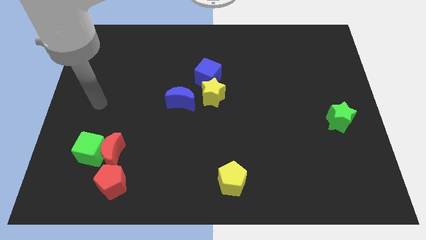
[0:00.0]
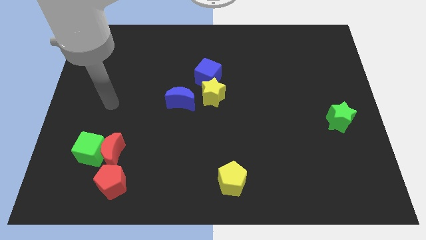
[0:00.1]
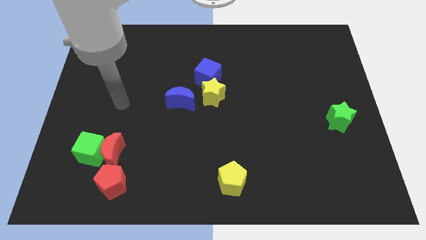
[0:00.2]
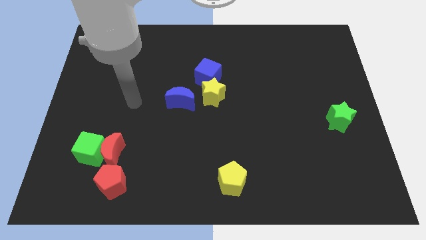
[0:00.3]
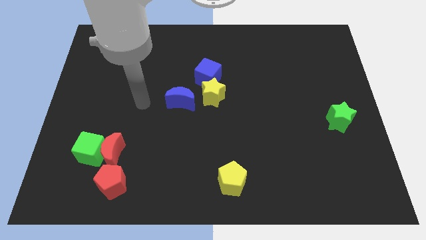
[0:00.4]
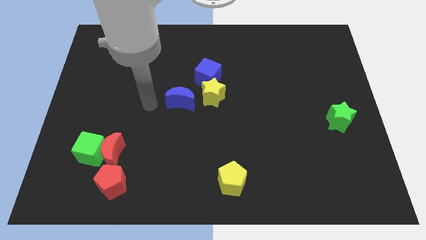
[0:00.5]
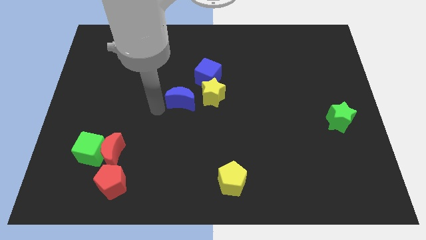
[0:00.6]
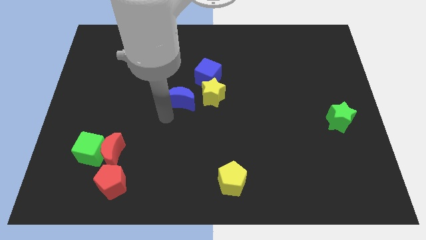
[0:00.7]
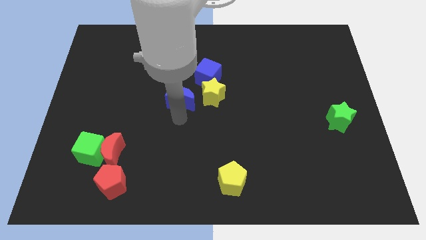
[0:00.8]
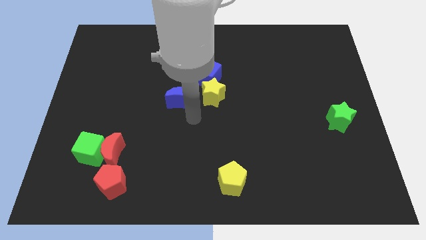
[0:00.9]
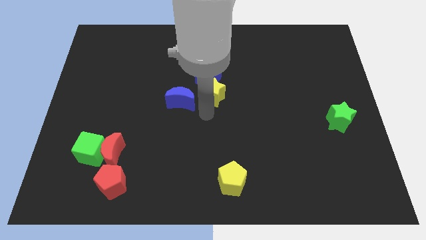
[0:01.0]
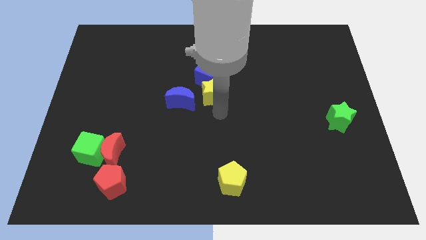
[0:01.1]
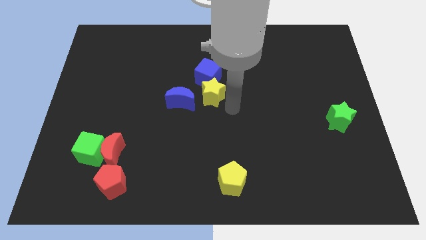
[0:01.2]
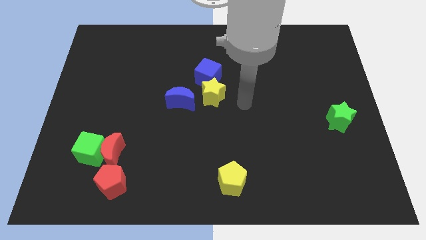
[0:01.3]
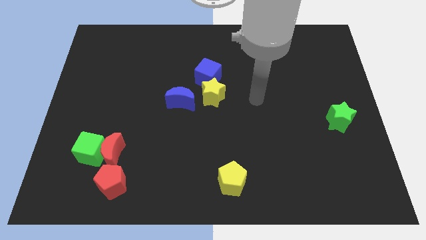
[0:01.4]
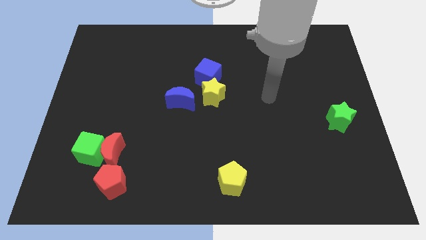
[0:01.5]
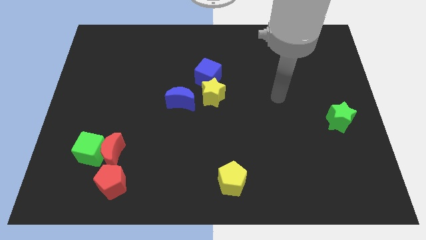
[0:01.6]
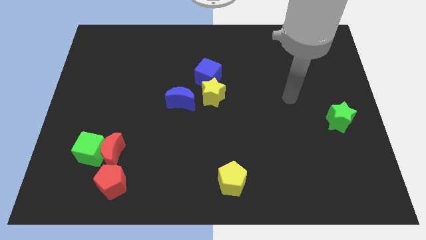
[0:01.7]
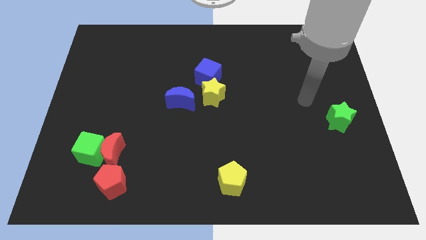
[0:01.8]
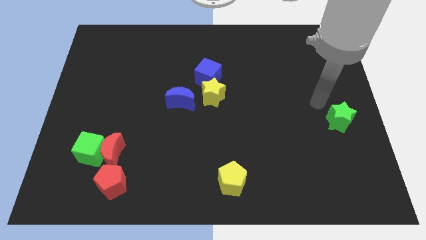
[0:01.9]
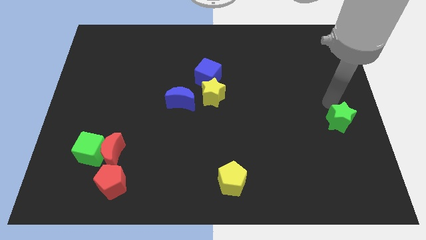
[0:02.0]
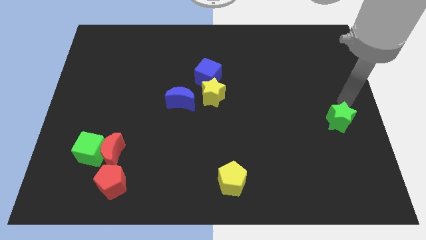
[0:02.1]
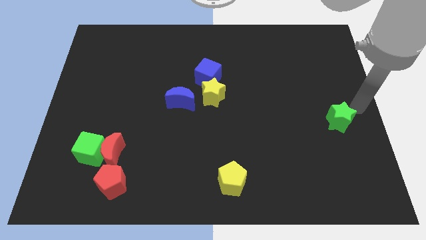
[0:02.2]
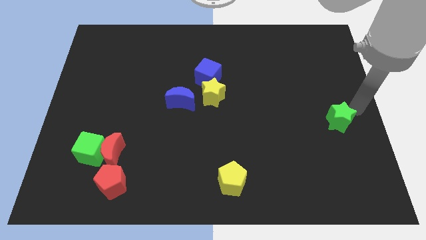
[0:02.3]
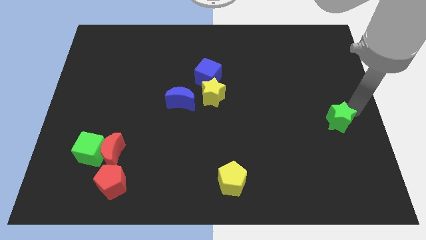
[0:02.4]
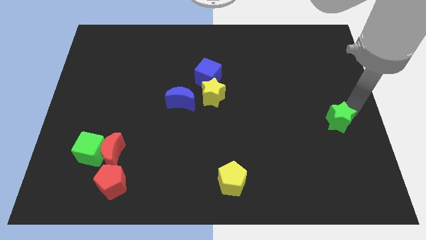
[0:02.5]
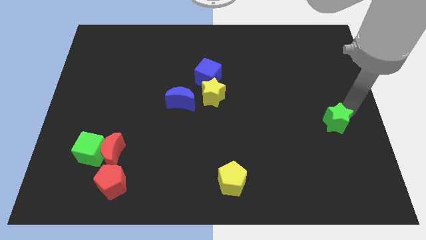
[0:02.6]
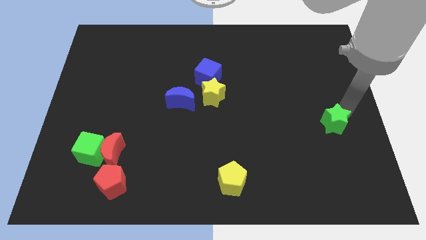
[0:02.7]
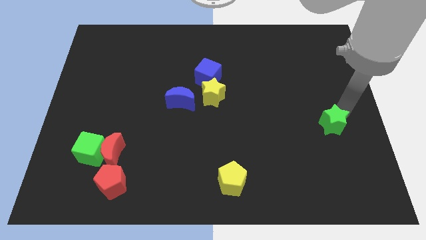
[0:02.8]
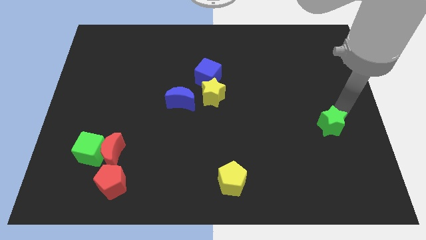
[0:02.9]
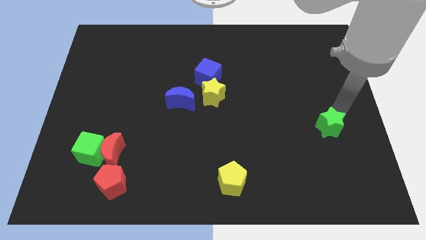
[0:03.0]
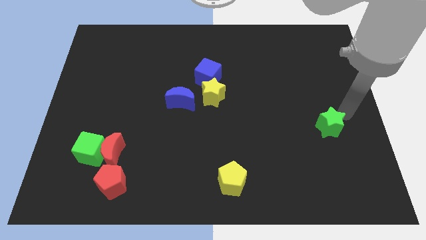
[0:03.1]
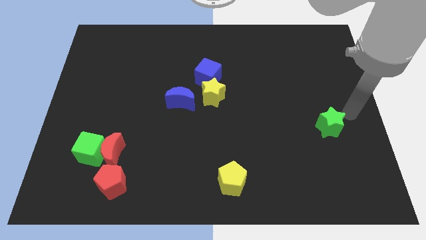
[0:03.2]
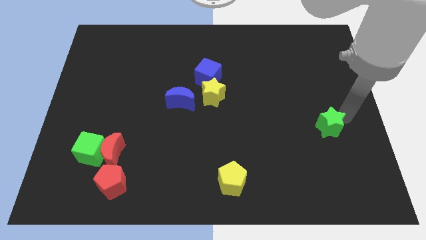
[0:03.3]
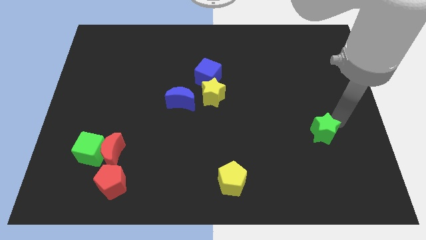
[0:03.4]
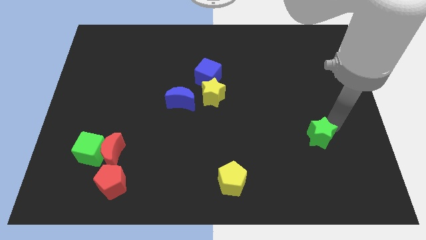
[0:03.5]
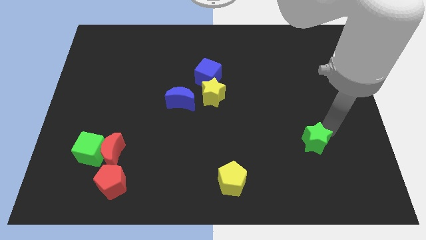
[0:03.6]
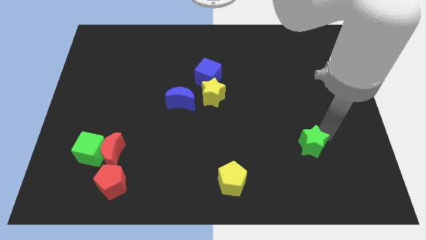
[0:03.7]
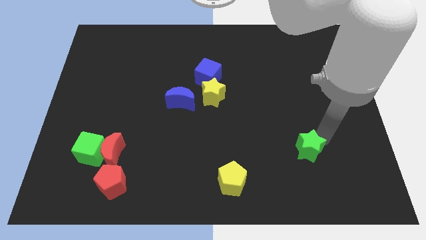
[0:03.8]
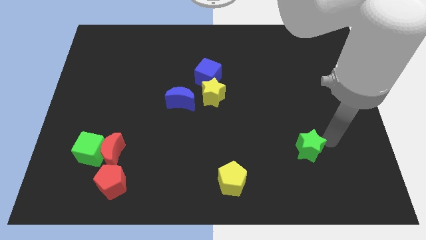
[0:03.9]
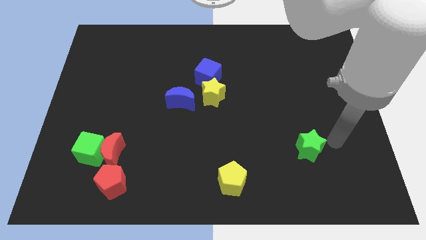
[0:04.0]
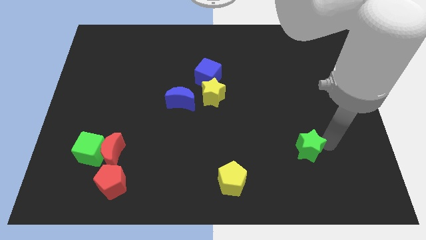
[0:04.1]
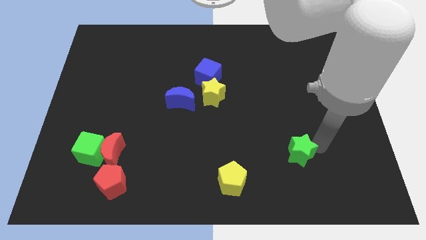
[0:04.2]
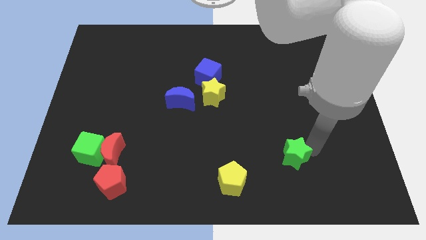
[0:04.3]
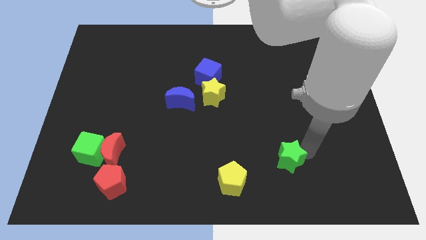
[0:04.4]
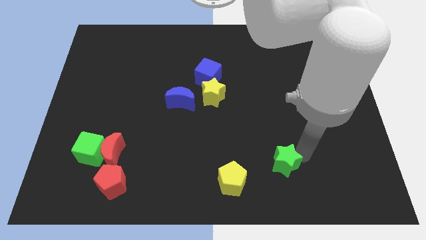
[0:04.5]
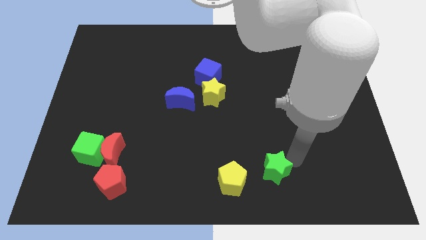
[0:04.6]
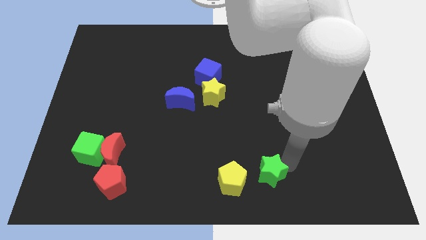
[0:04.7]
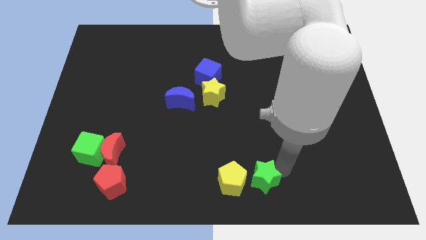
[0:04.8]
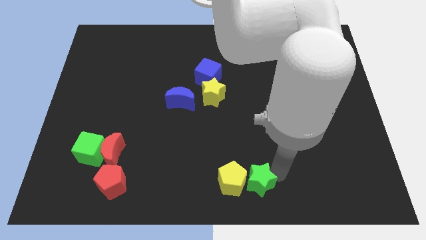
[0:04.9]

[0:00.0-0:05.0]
put the green star to the yellow pentagon

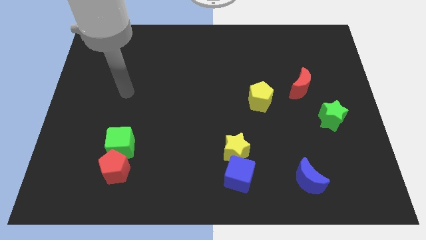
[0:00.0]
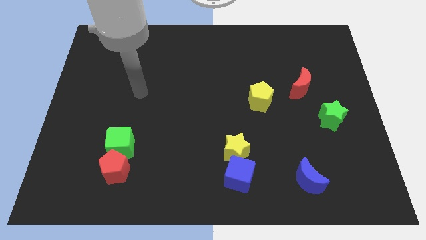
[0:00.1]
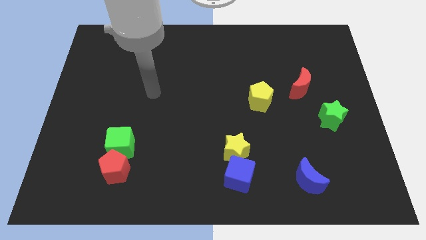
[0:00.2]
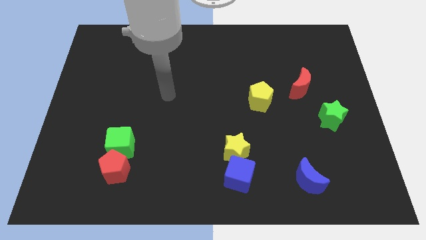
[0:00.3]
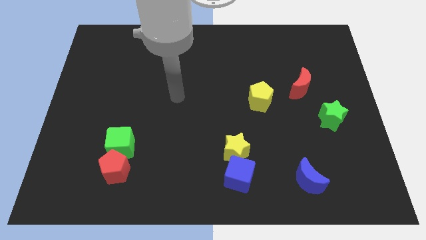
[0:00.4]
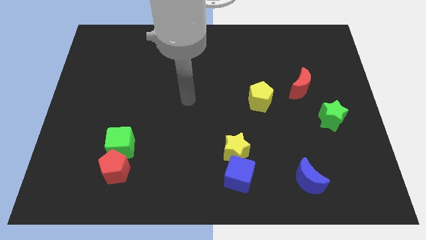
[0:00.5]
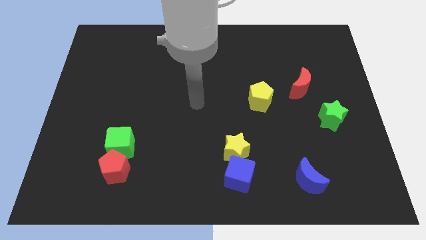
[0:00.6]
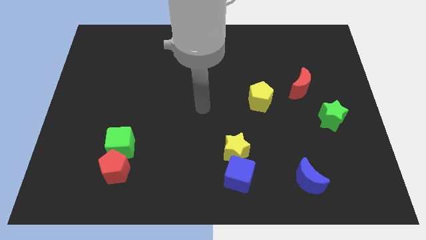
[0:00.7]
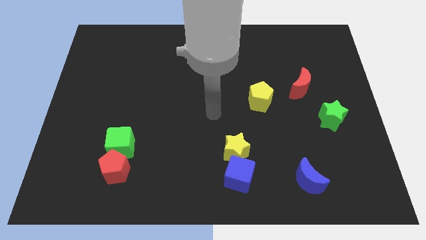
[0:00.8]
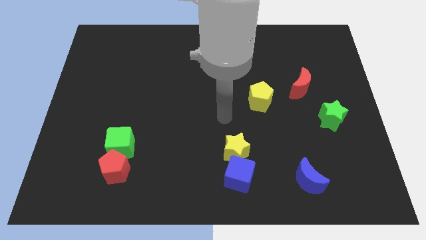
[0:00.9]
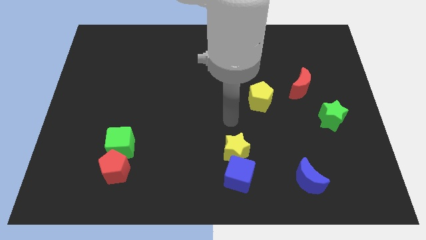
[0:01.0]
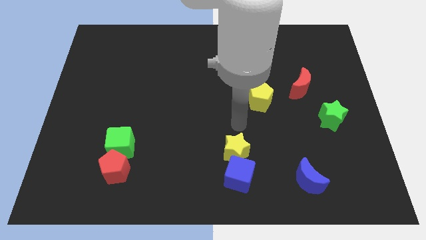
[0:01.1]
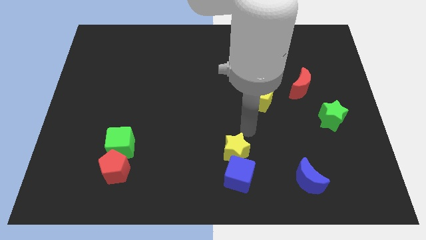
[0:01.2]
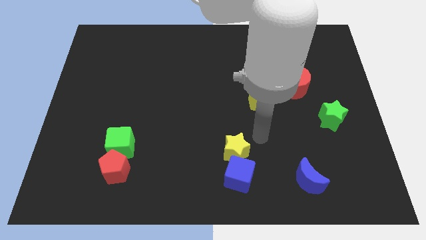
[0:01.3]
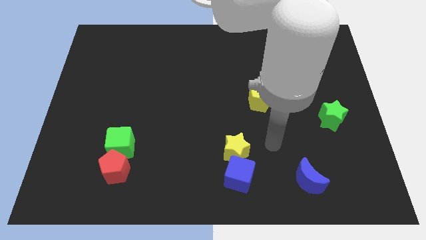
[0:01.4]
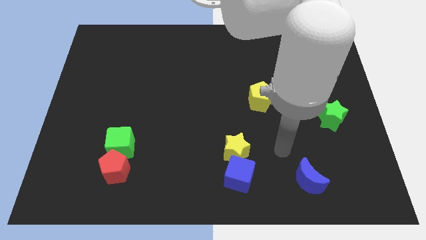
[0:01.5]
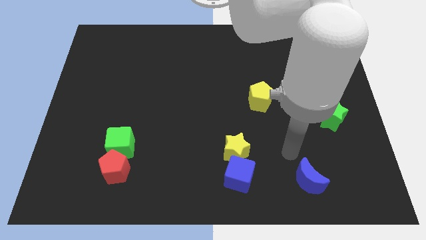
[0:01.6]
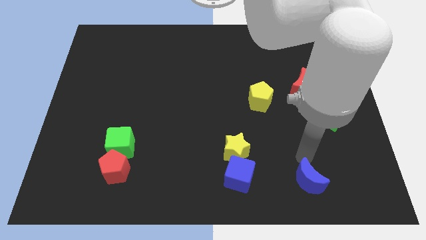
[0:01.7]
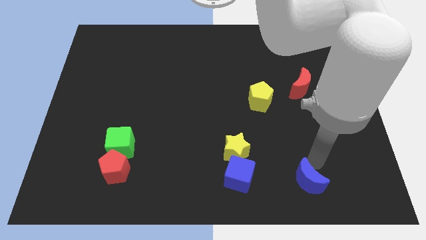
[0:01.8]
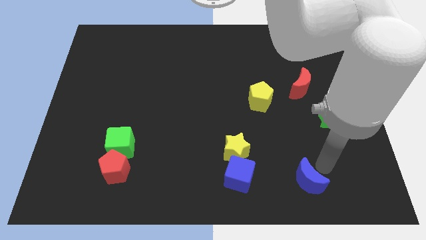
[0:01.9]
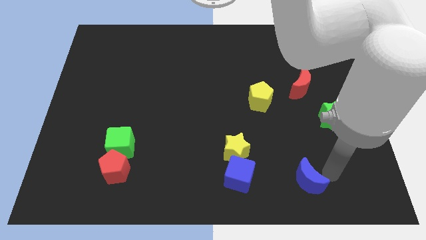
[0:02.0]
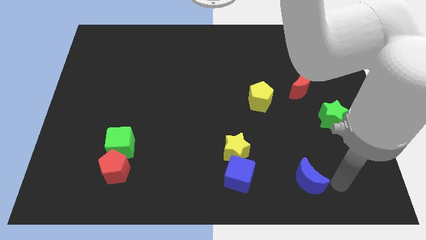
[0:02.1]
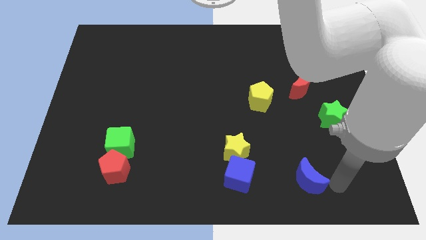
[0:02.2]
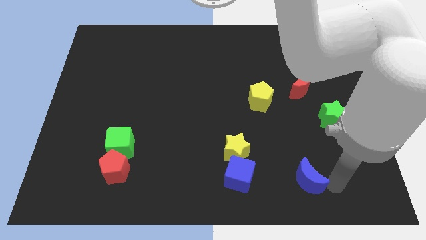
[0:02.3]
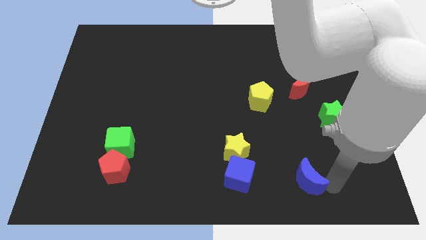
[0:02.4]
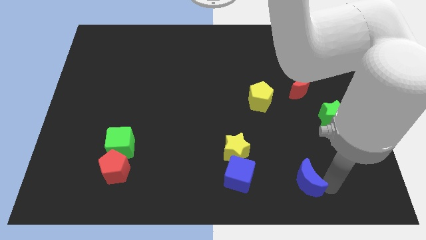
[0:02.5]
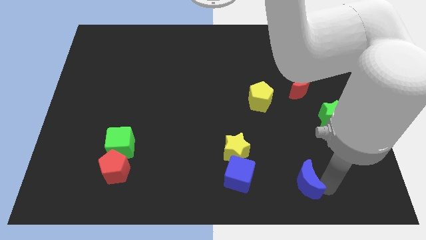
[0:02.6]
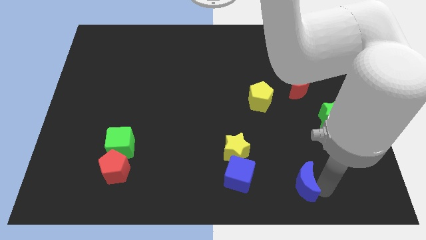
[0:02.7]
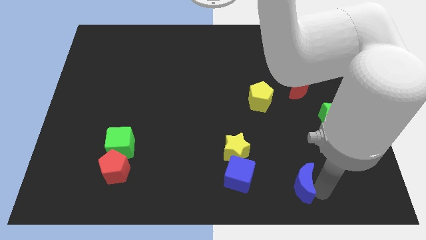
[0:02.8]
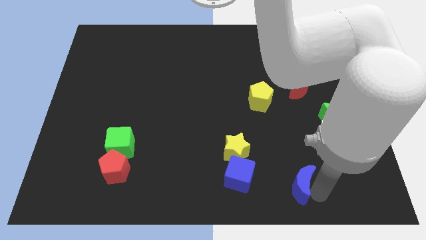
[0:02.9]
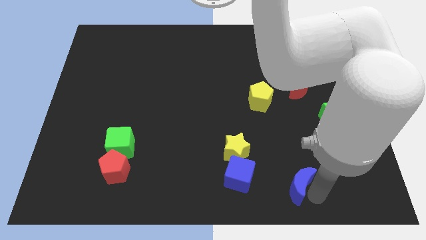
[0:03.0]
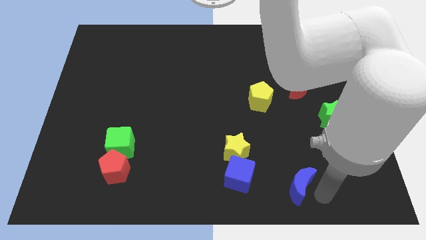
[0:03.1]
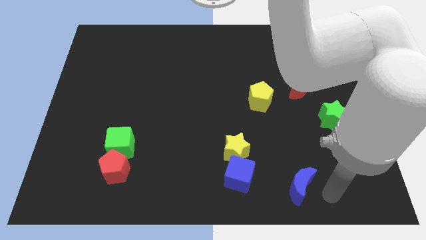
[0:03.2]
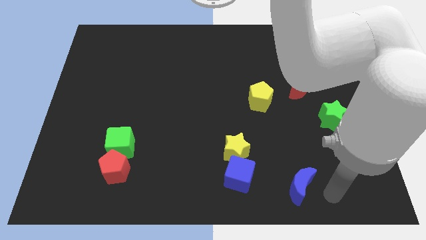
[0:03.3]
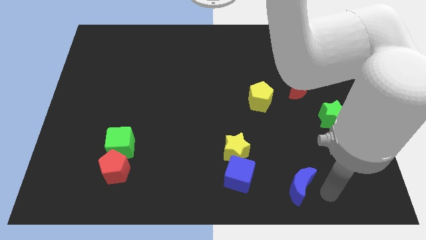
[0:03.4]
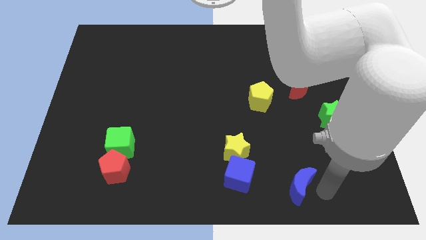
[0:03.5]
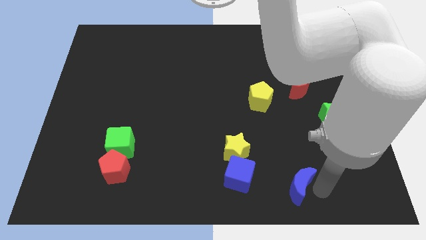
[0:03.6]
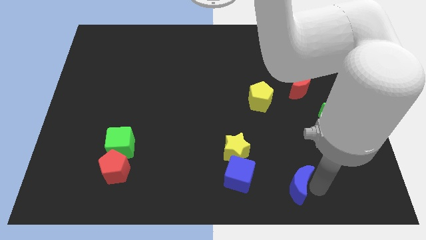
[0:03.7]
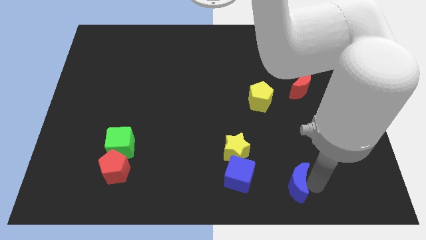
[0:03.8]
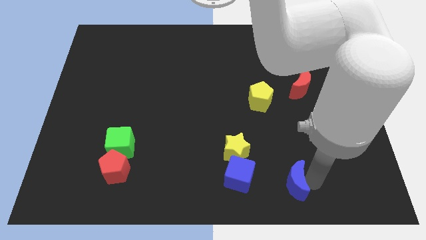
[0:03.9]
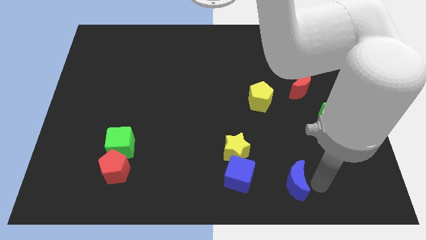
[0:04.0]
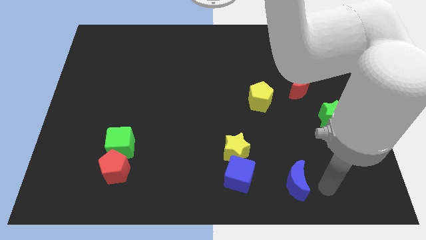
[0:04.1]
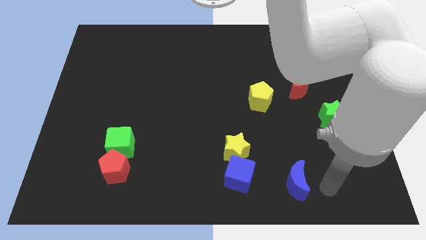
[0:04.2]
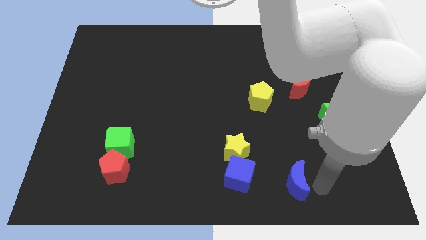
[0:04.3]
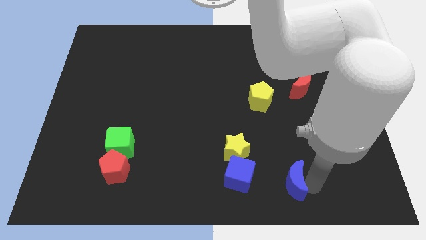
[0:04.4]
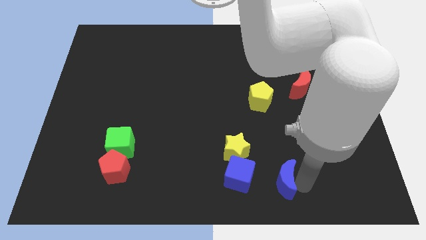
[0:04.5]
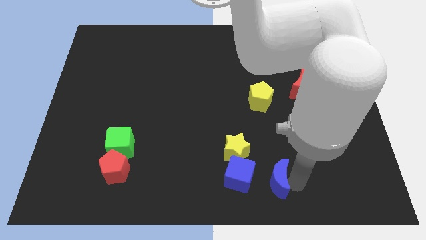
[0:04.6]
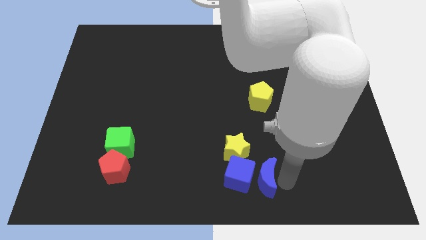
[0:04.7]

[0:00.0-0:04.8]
push the blue moon to the blue cube
